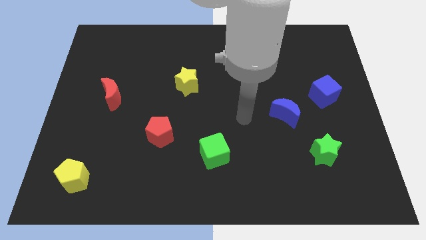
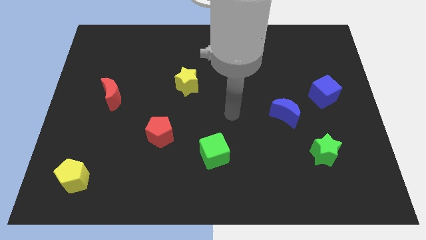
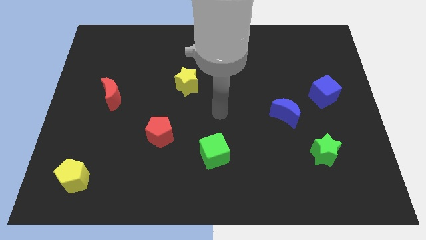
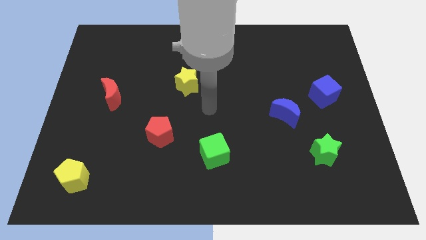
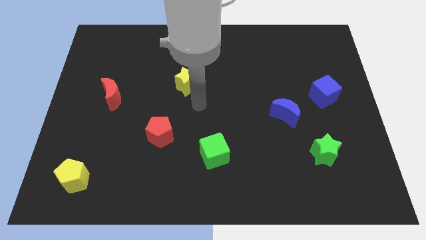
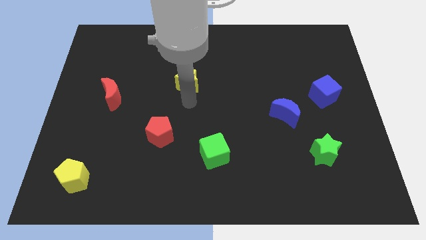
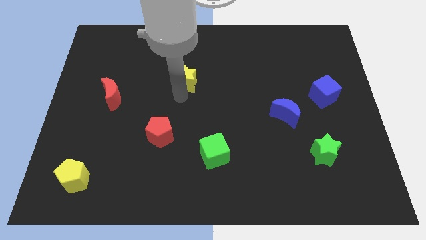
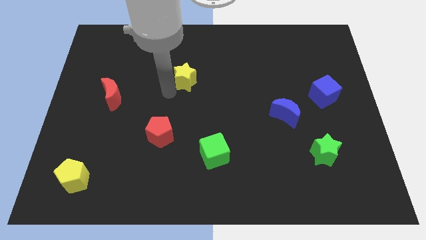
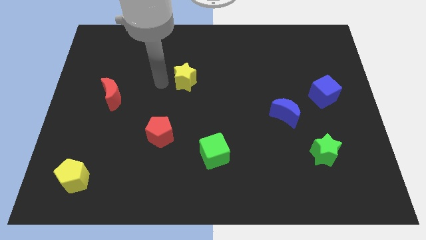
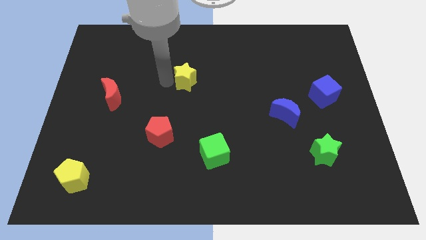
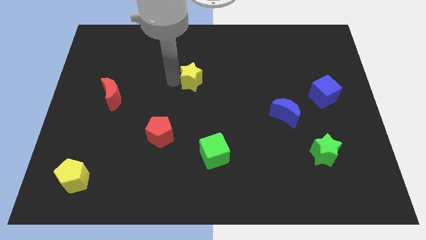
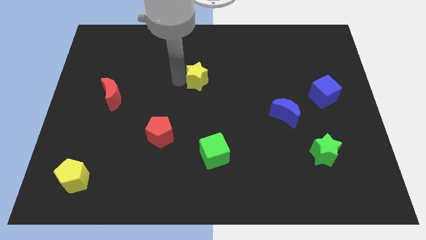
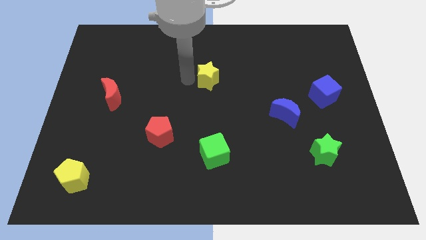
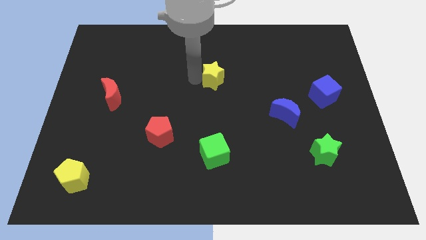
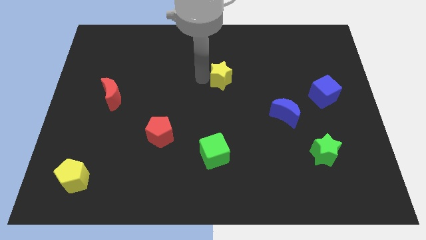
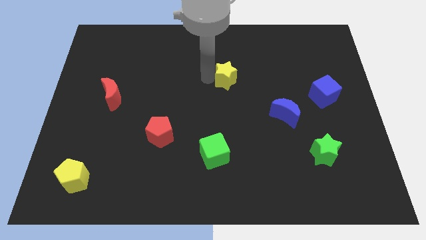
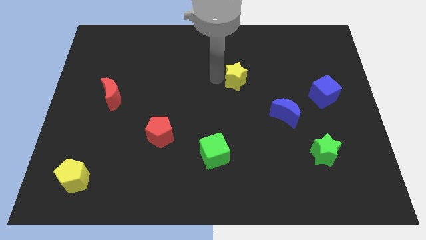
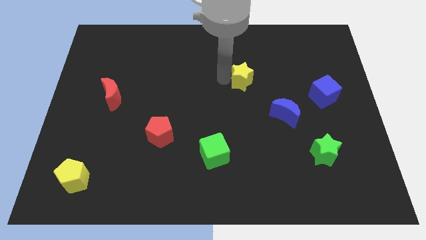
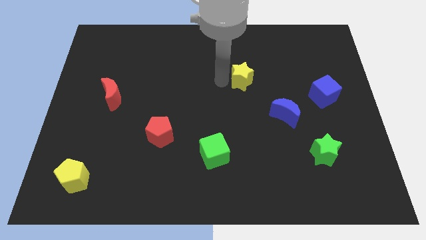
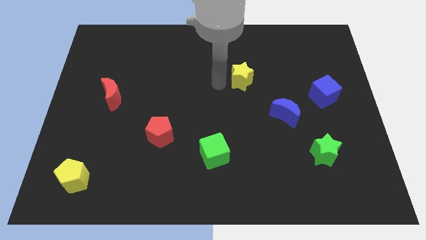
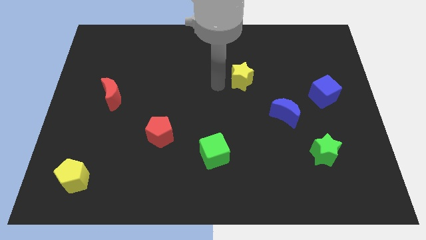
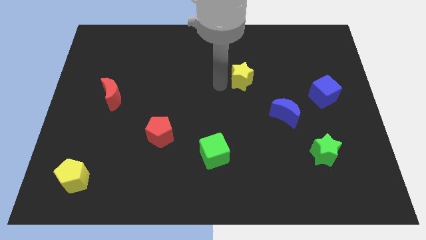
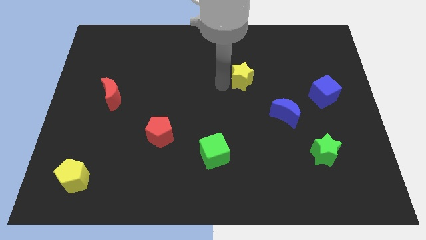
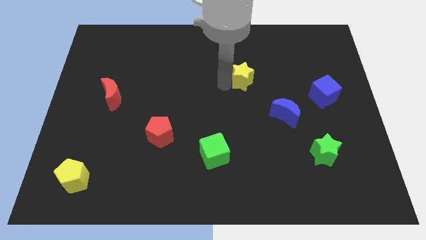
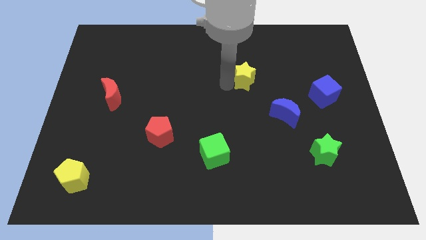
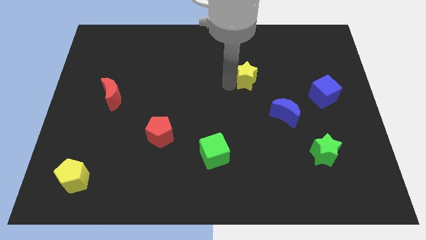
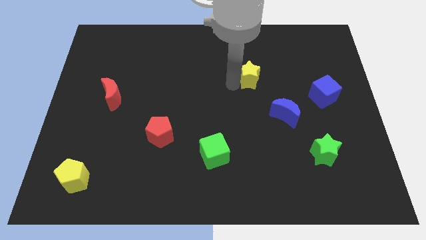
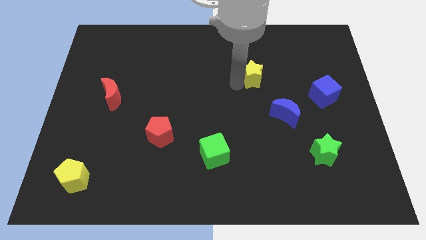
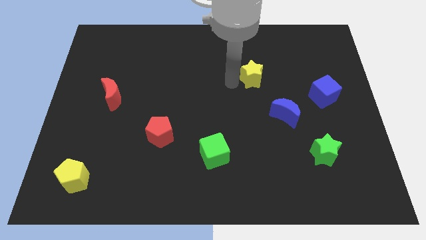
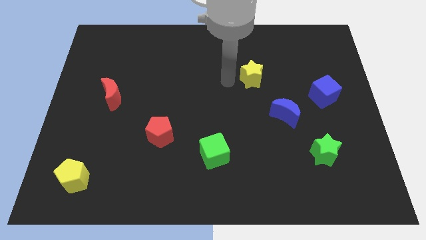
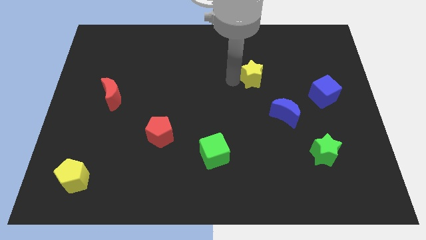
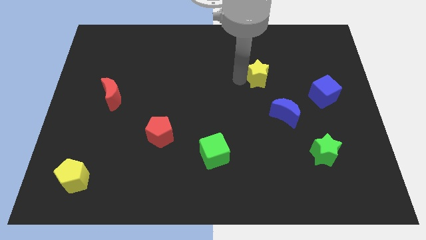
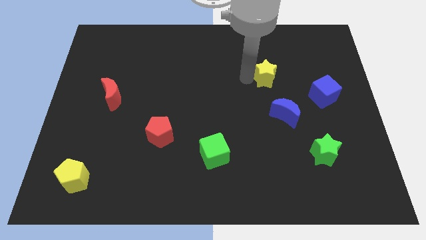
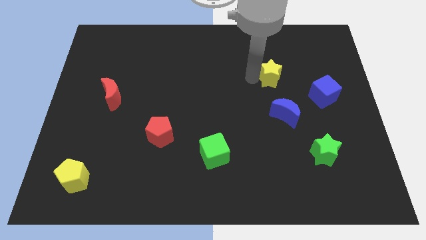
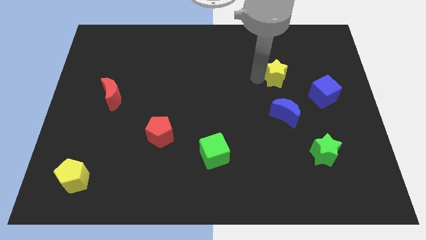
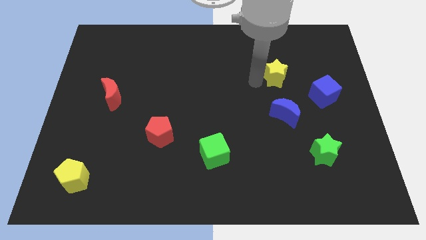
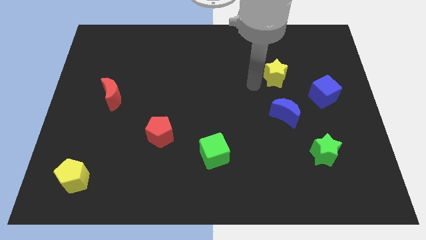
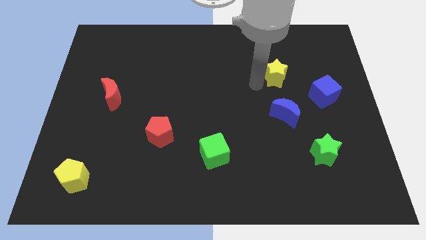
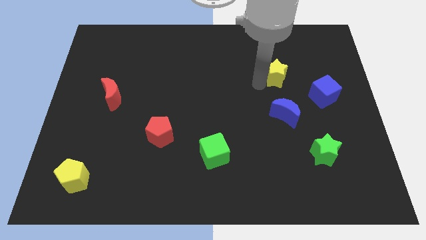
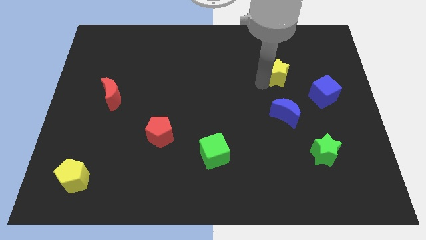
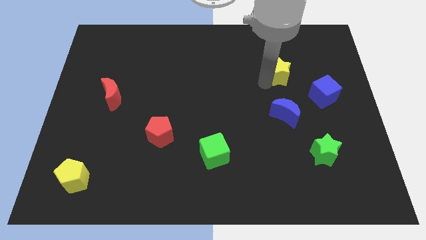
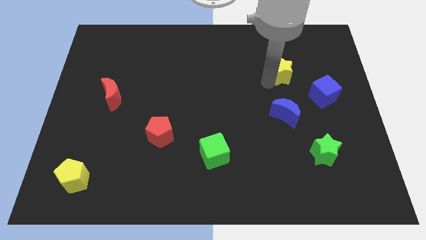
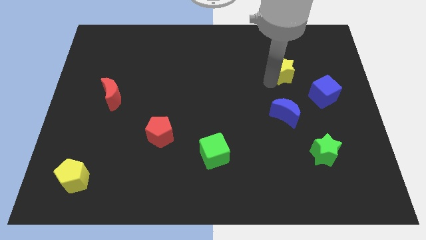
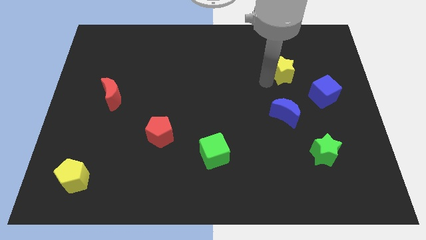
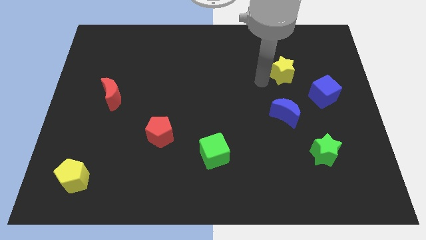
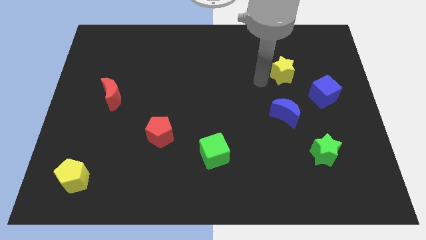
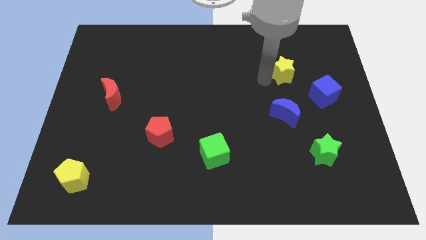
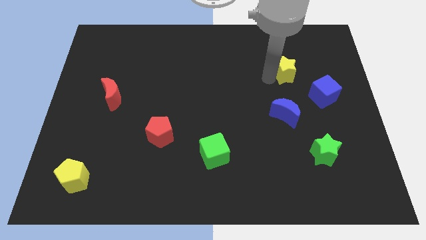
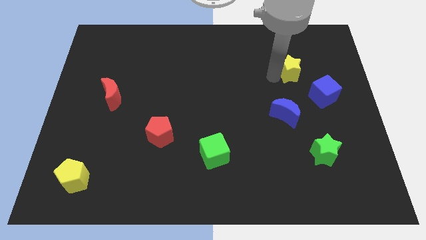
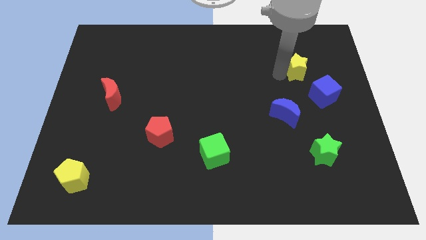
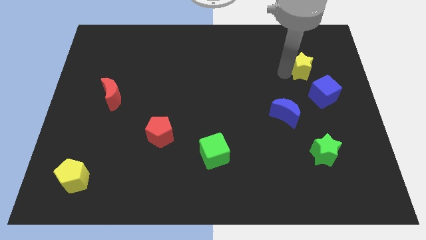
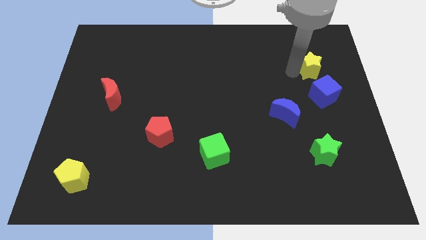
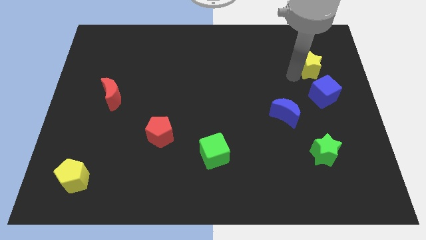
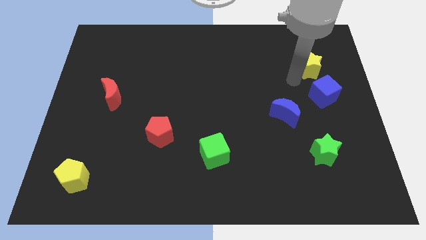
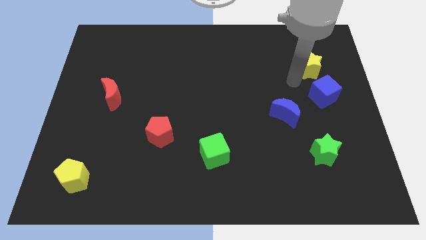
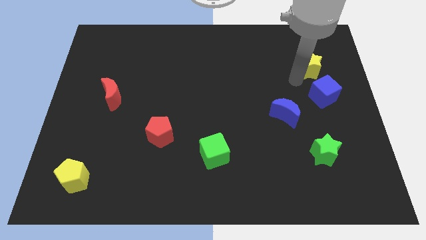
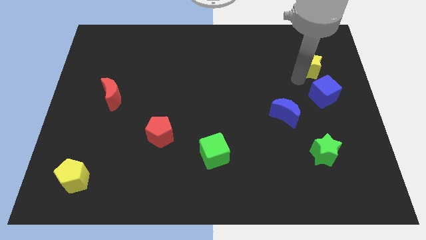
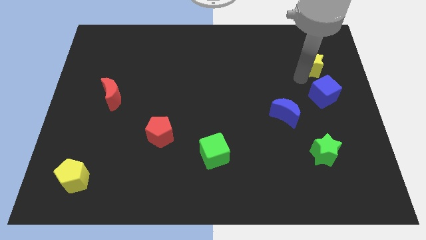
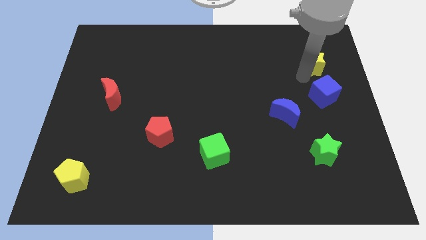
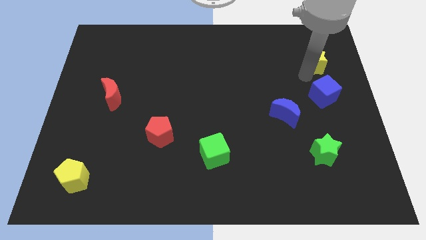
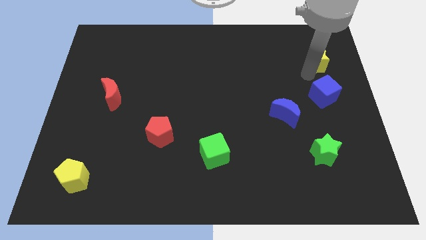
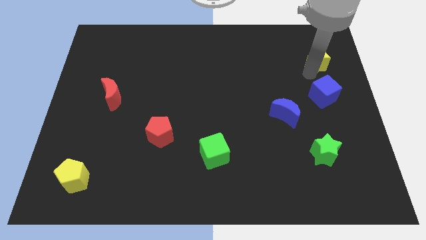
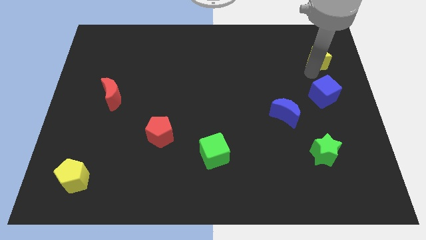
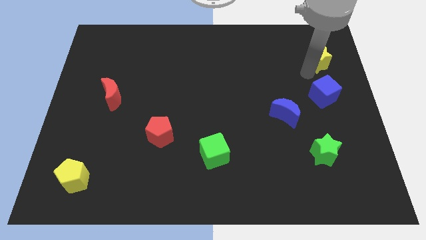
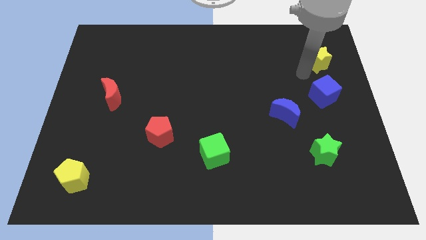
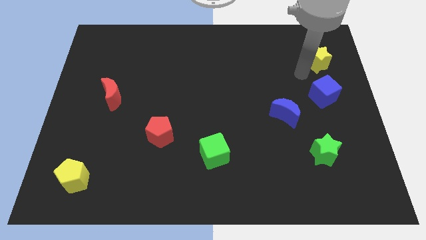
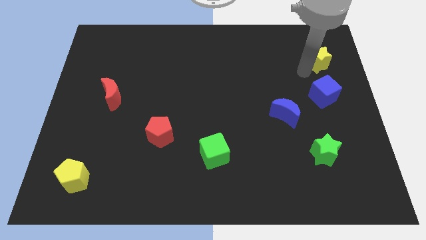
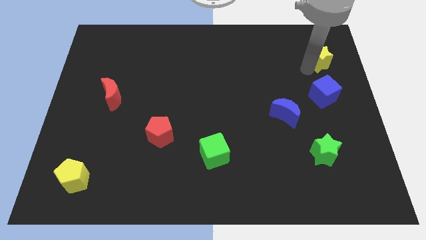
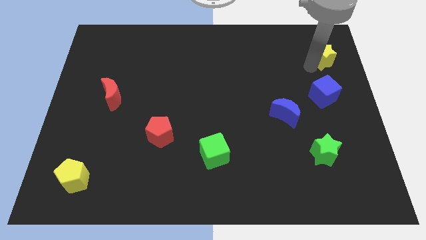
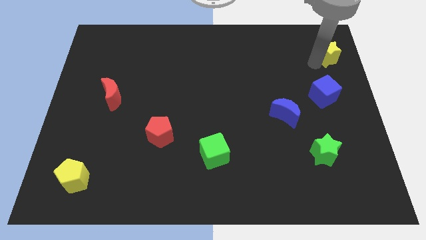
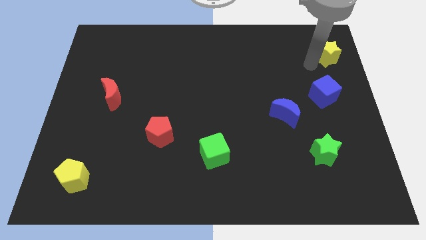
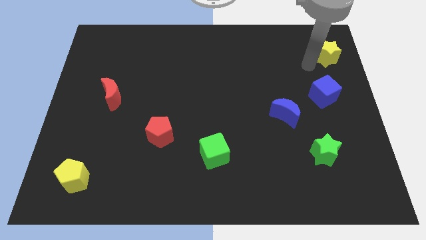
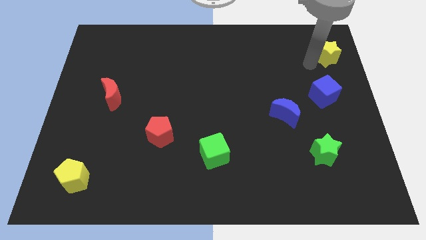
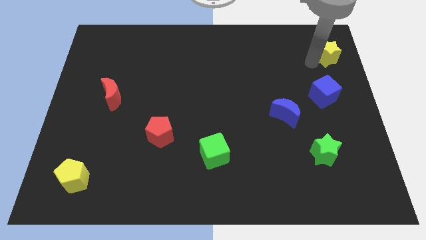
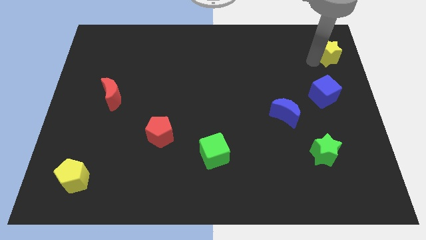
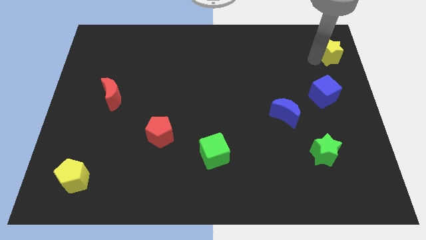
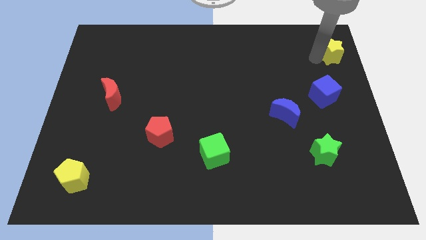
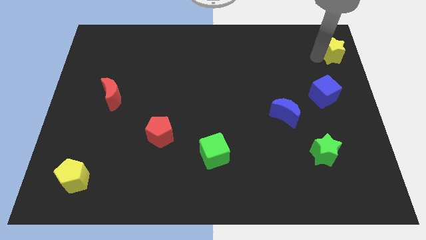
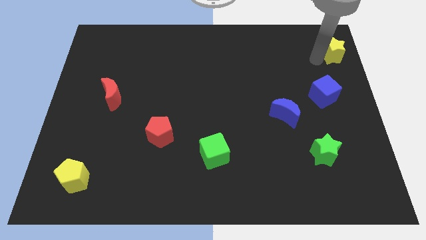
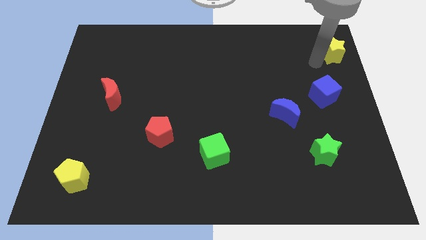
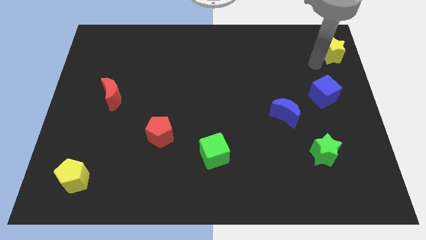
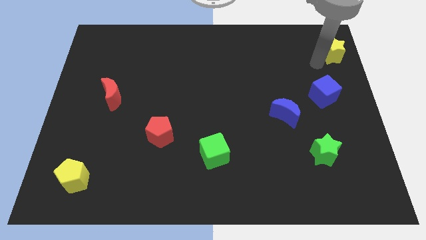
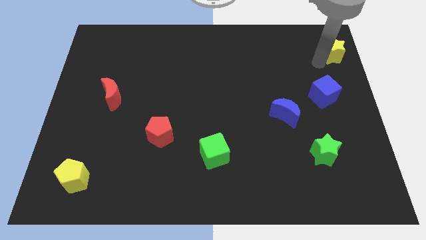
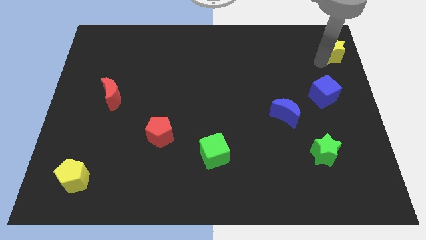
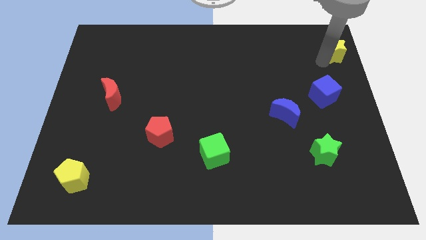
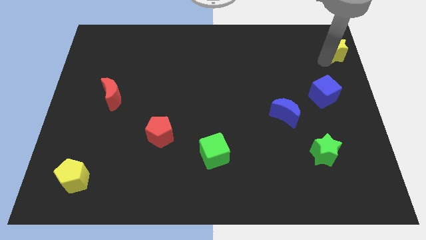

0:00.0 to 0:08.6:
put the yellow star to the top right
